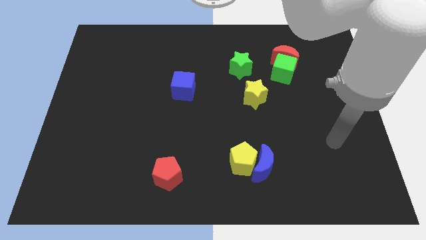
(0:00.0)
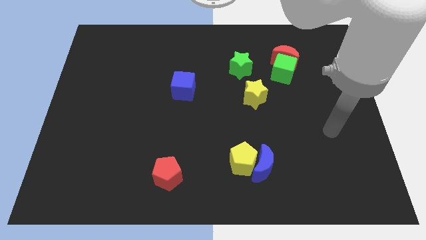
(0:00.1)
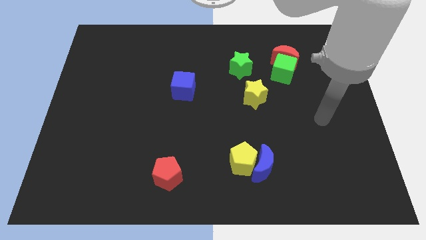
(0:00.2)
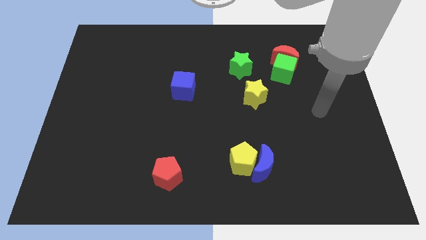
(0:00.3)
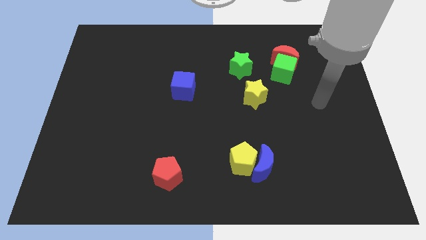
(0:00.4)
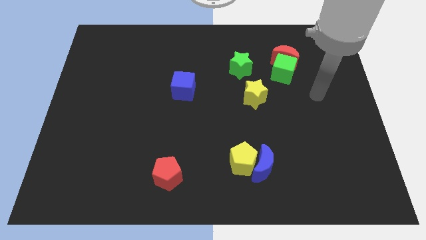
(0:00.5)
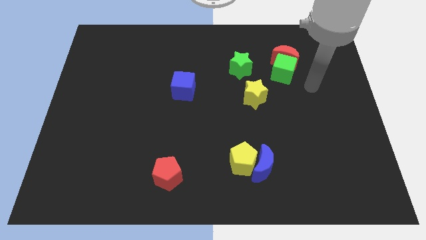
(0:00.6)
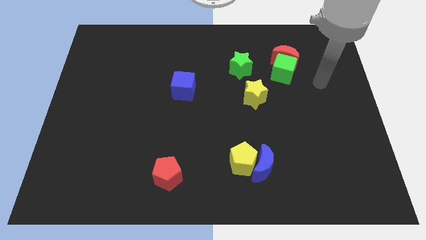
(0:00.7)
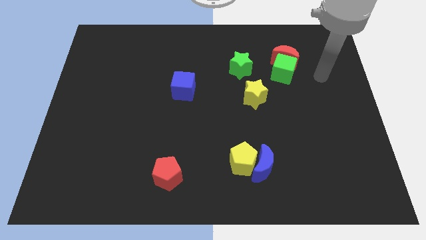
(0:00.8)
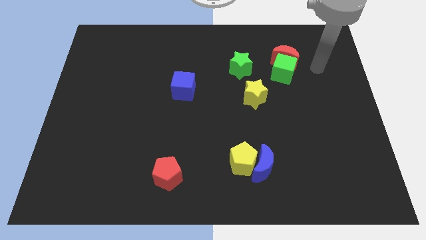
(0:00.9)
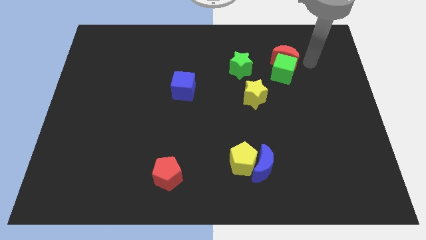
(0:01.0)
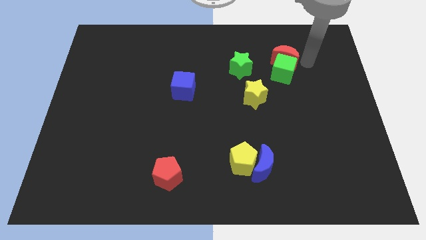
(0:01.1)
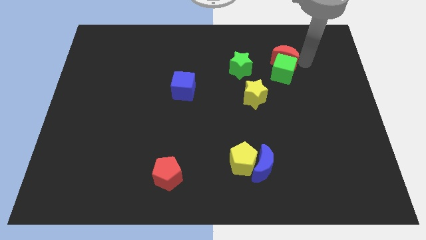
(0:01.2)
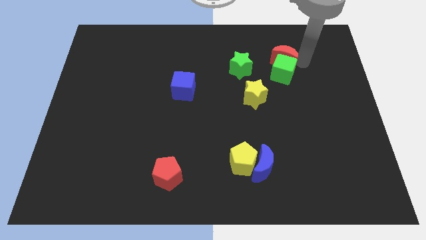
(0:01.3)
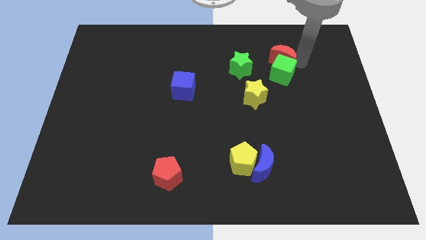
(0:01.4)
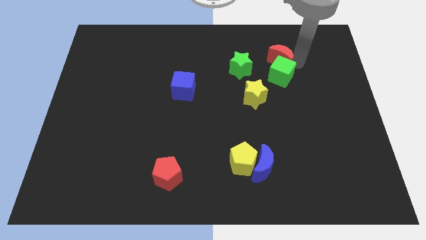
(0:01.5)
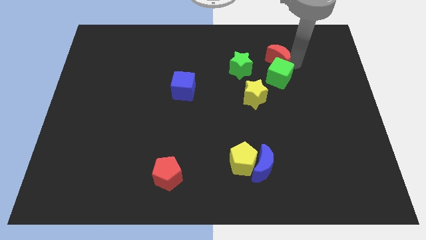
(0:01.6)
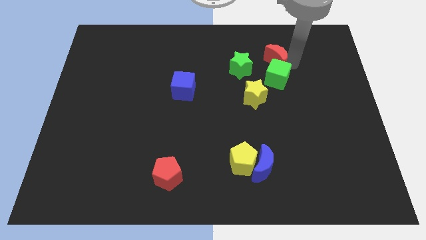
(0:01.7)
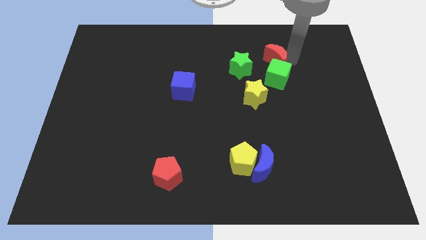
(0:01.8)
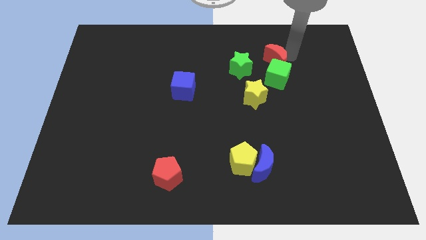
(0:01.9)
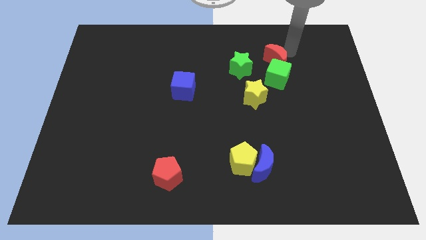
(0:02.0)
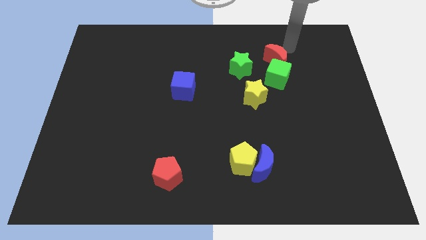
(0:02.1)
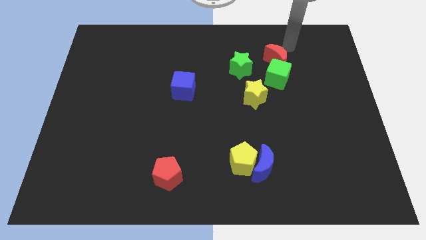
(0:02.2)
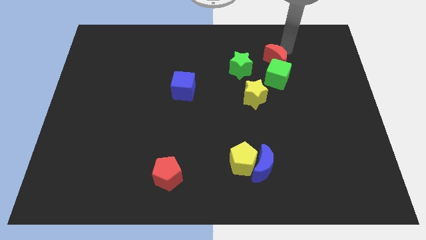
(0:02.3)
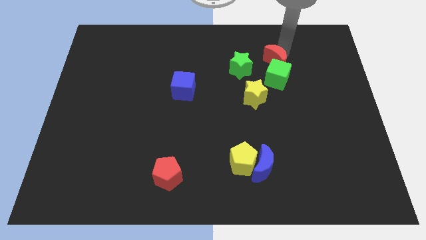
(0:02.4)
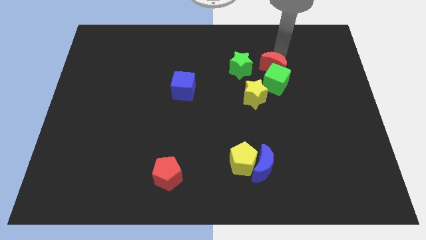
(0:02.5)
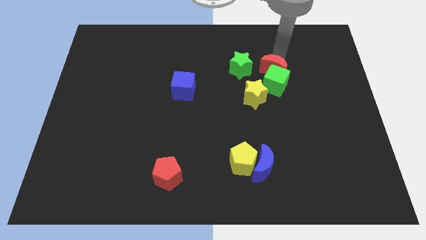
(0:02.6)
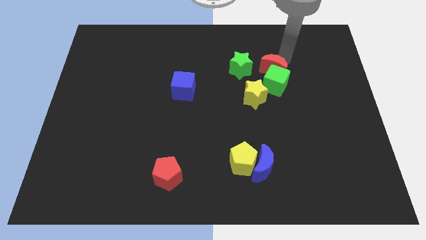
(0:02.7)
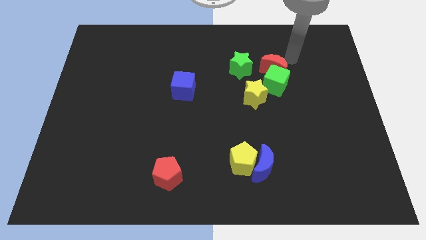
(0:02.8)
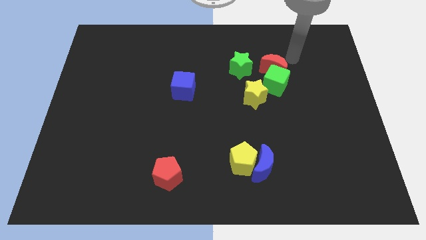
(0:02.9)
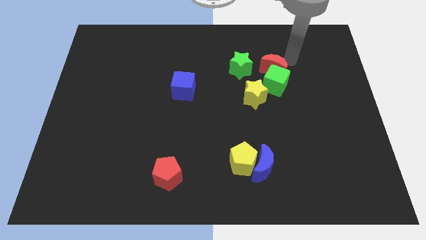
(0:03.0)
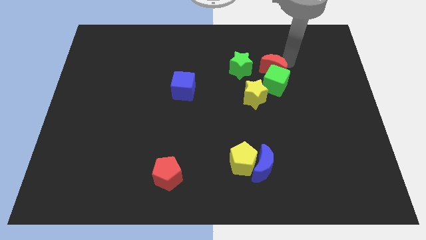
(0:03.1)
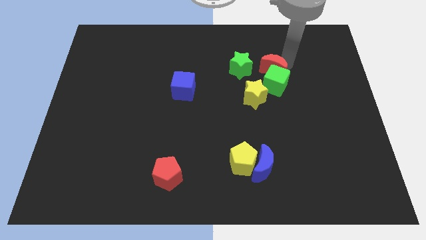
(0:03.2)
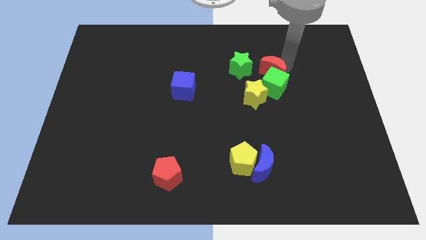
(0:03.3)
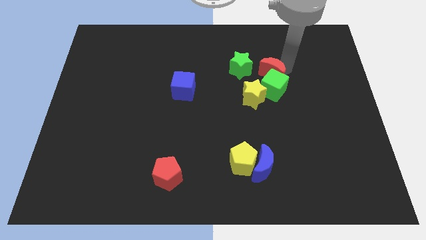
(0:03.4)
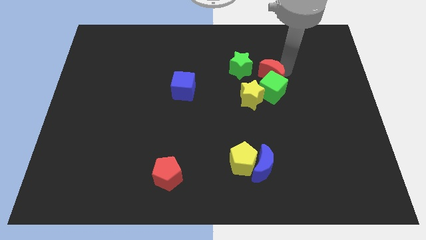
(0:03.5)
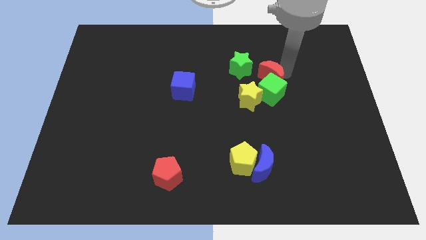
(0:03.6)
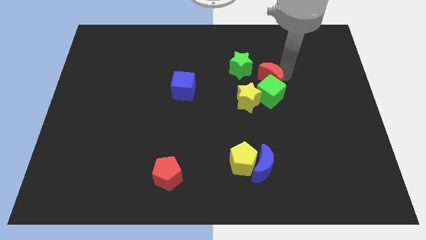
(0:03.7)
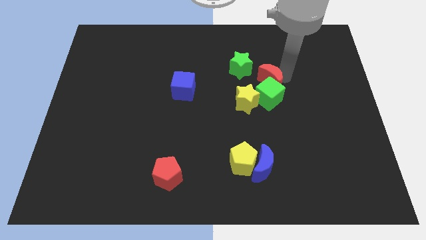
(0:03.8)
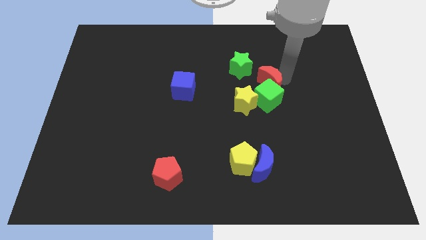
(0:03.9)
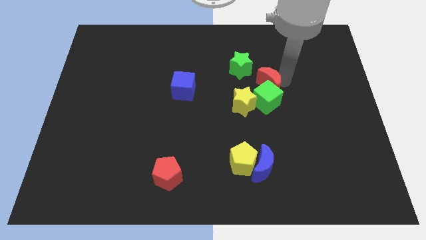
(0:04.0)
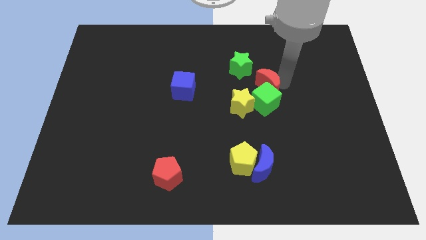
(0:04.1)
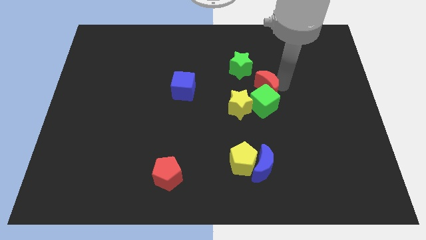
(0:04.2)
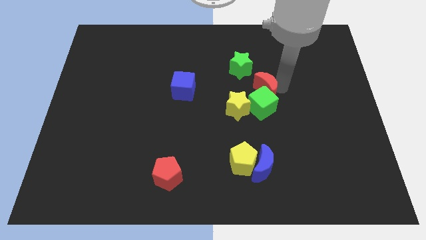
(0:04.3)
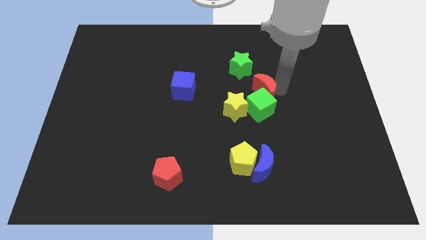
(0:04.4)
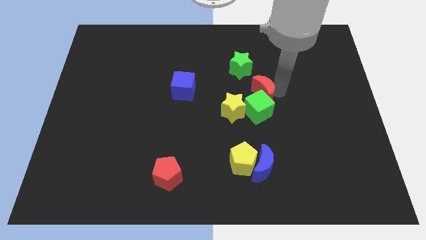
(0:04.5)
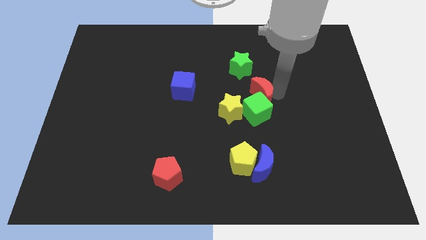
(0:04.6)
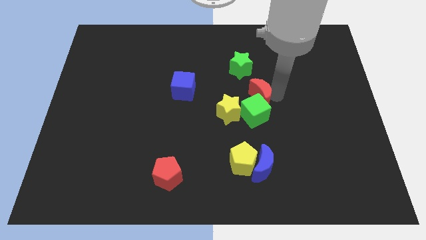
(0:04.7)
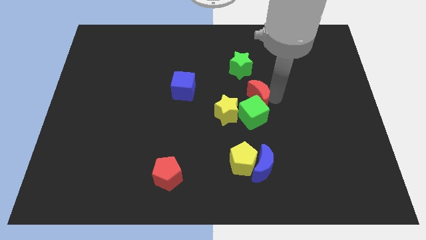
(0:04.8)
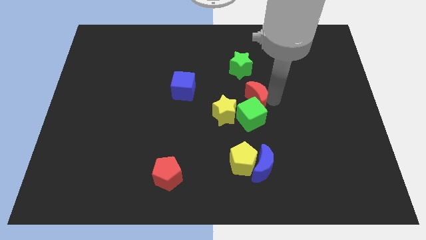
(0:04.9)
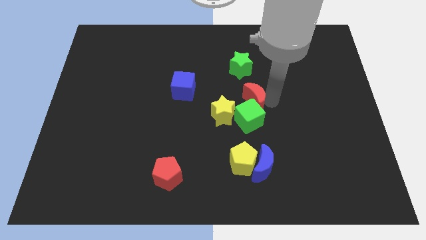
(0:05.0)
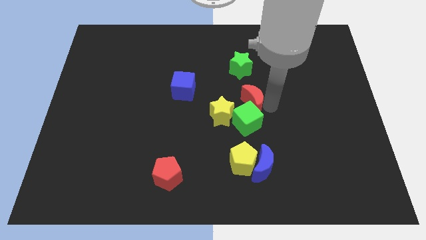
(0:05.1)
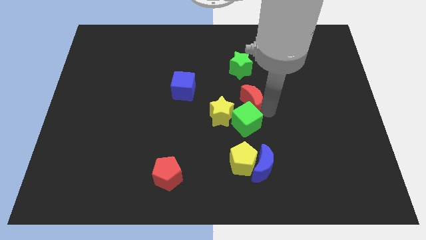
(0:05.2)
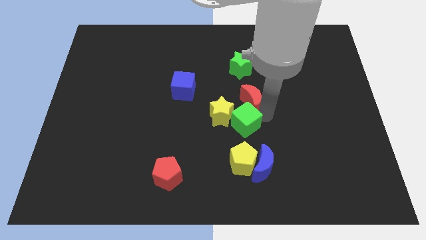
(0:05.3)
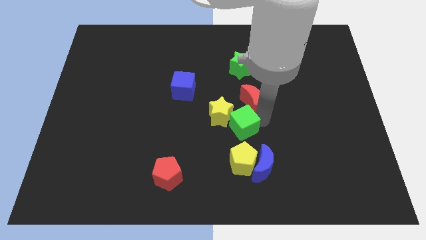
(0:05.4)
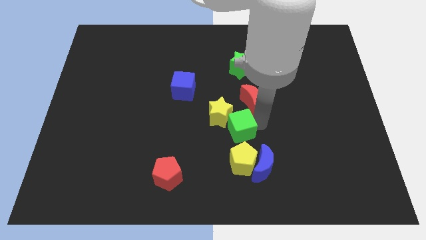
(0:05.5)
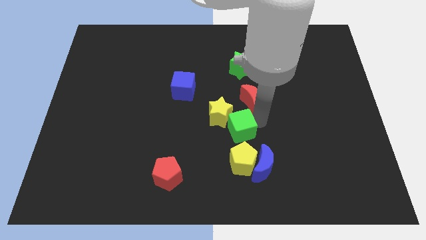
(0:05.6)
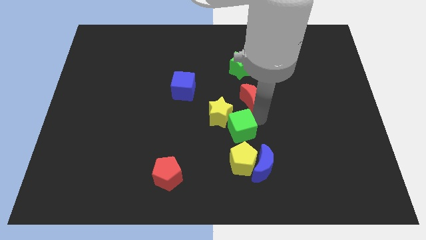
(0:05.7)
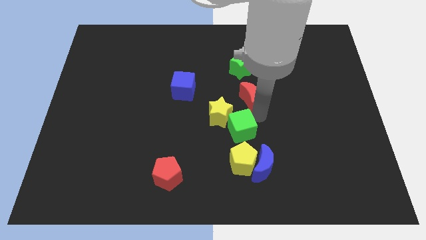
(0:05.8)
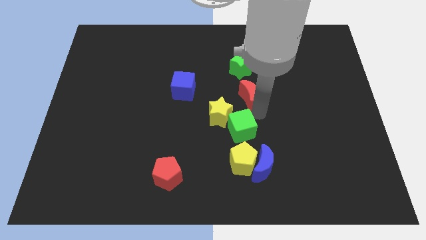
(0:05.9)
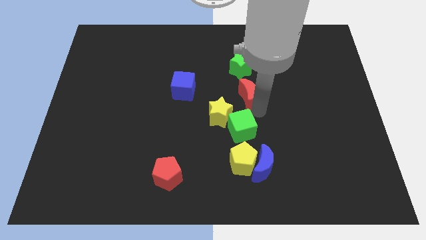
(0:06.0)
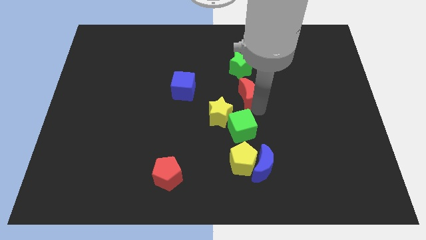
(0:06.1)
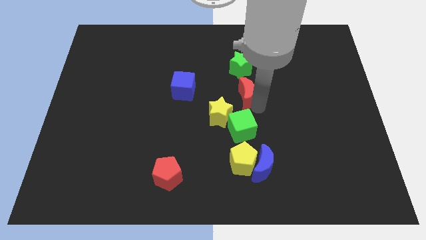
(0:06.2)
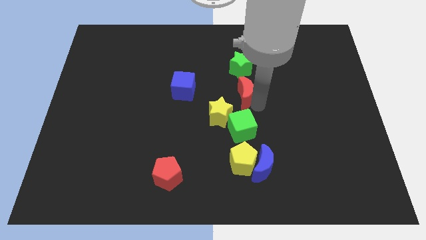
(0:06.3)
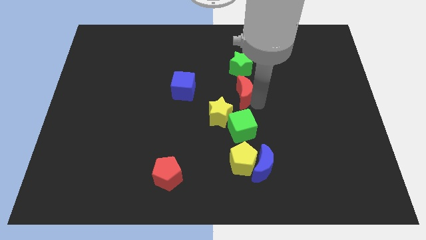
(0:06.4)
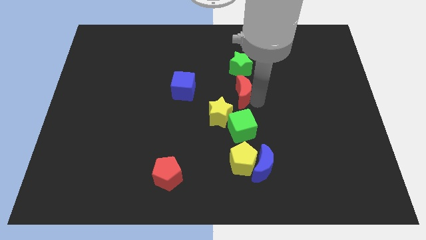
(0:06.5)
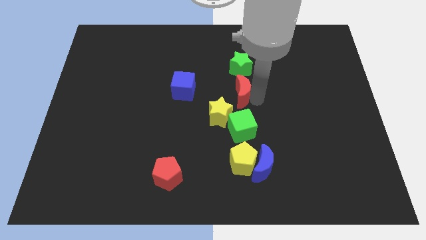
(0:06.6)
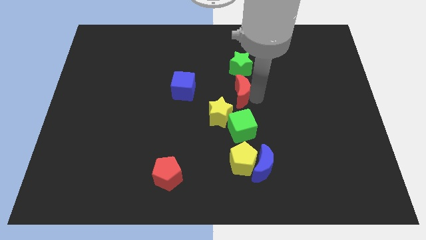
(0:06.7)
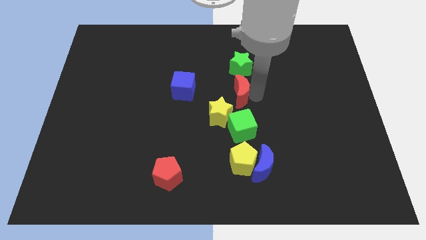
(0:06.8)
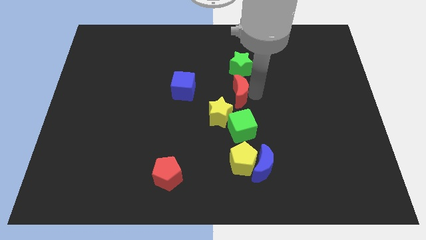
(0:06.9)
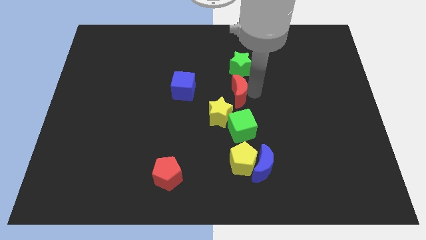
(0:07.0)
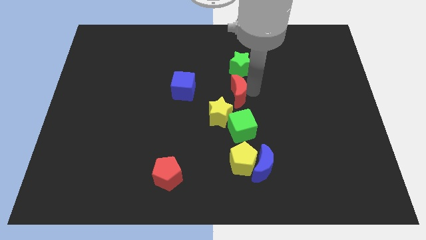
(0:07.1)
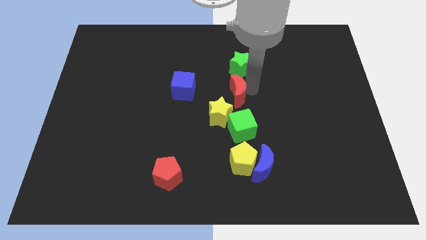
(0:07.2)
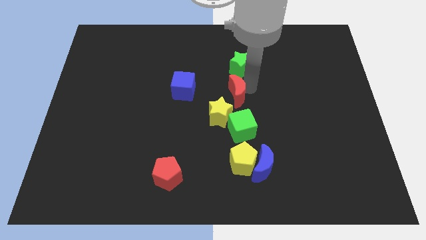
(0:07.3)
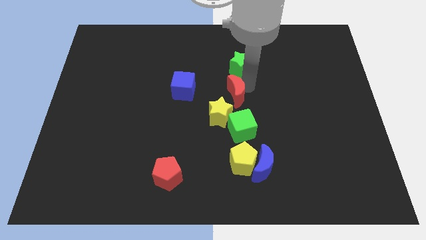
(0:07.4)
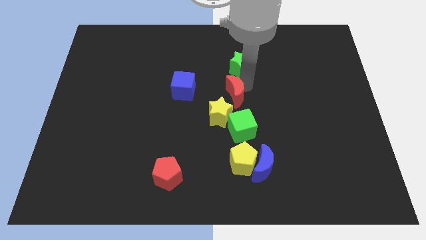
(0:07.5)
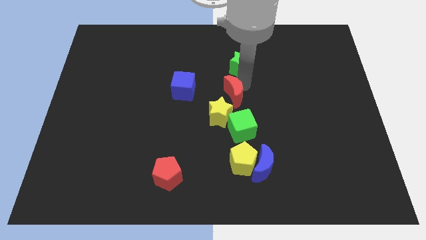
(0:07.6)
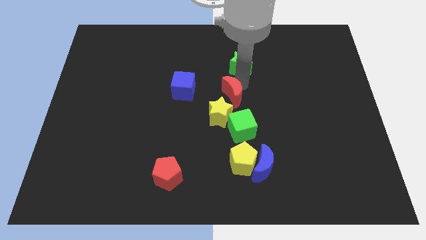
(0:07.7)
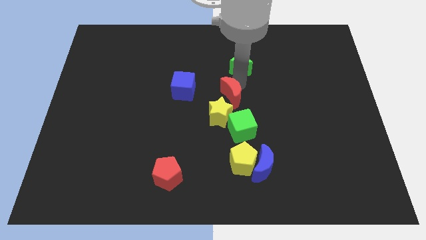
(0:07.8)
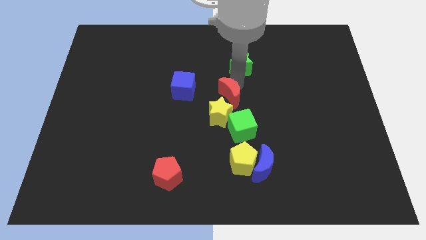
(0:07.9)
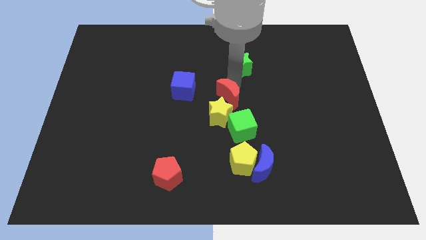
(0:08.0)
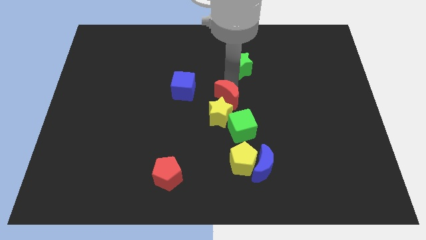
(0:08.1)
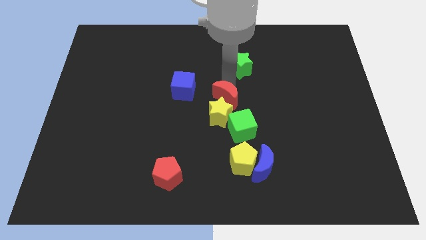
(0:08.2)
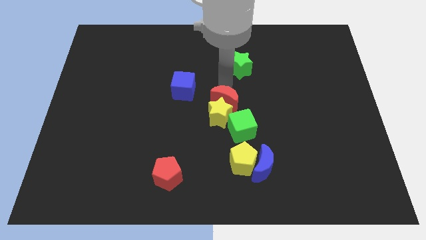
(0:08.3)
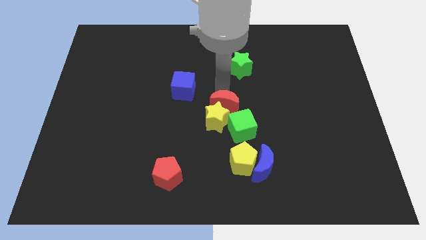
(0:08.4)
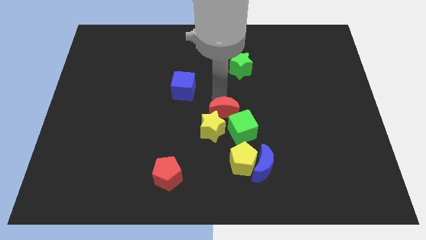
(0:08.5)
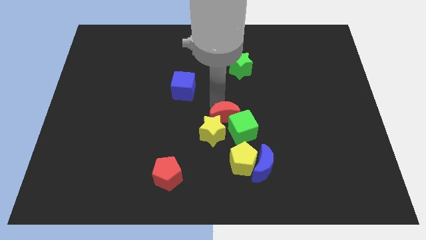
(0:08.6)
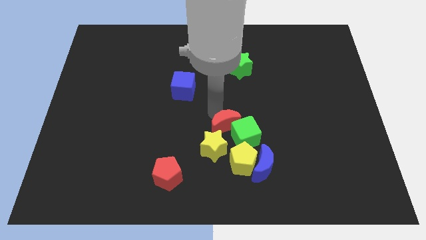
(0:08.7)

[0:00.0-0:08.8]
push the red moon to the top left side of the yellow pentagon
